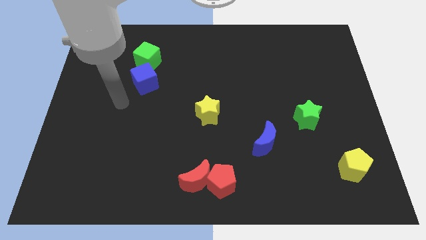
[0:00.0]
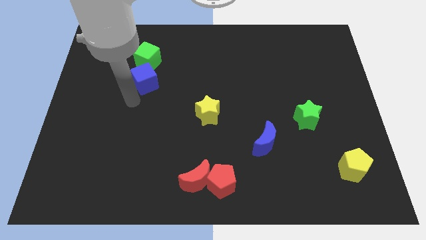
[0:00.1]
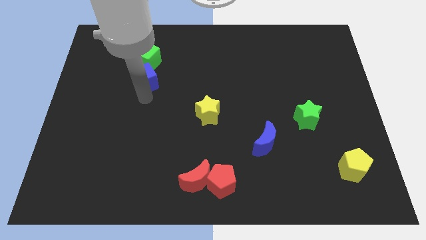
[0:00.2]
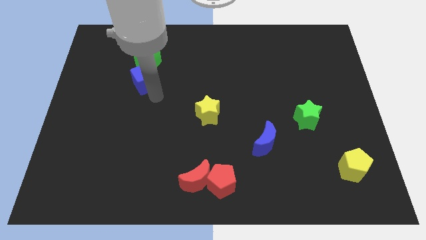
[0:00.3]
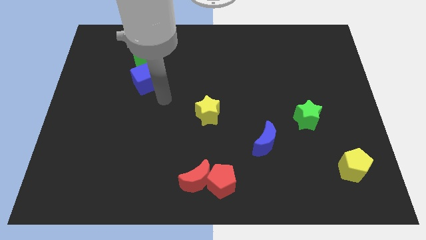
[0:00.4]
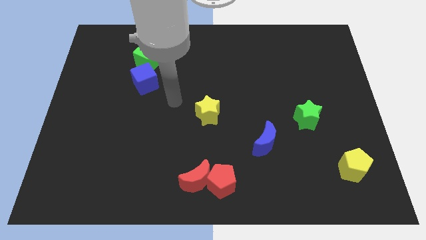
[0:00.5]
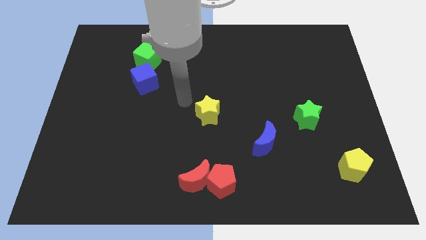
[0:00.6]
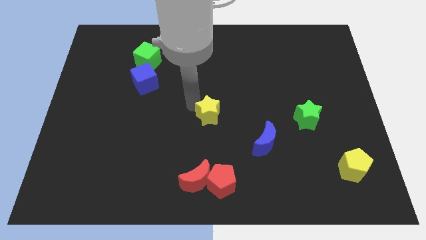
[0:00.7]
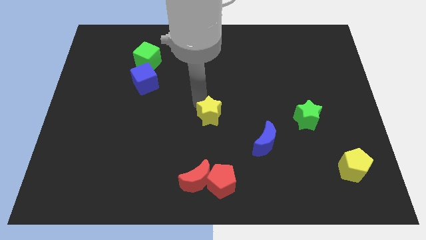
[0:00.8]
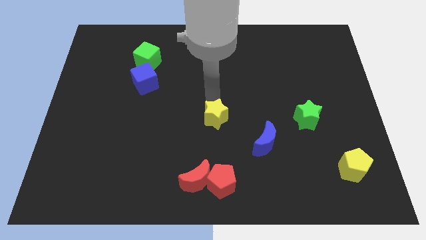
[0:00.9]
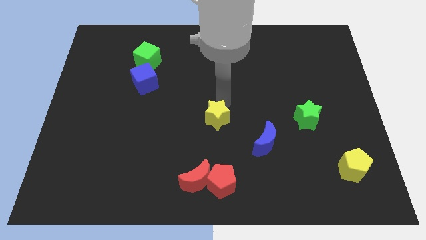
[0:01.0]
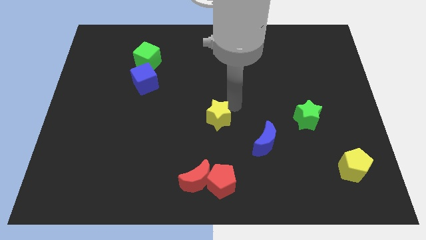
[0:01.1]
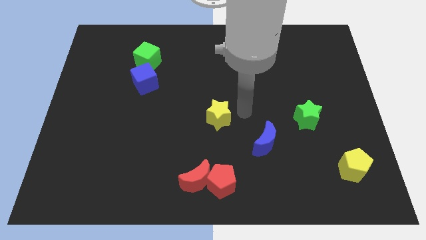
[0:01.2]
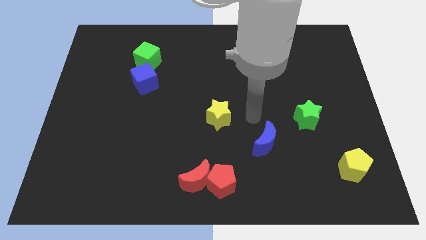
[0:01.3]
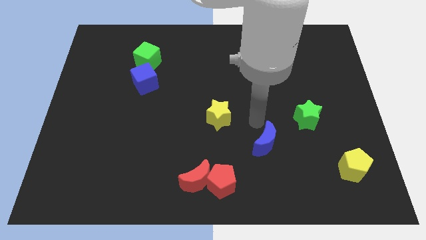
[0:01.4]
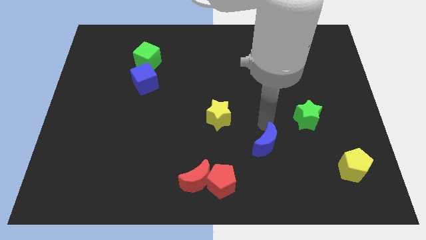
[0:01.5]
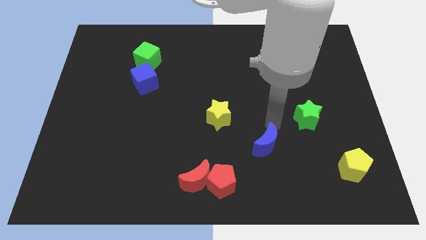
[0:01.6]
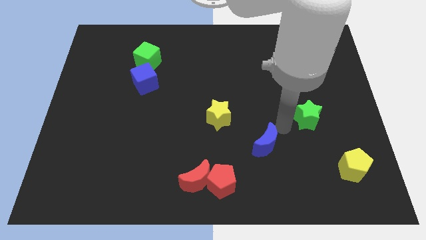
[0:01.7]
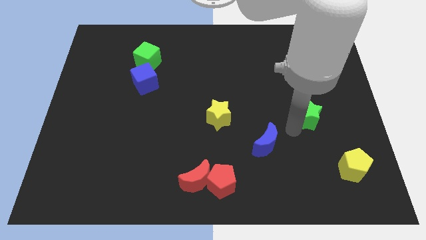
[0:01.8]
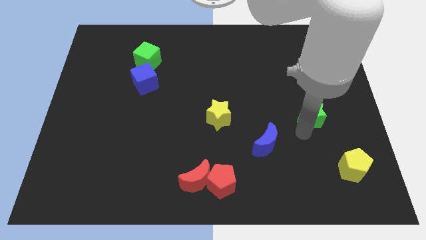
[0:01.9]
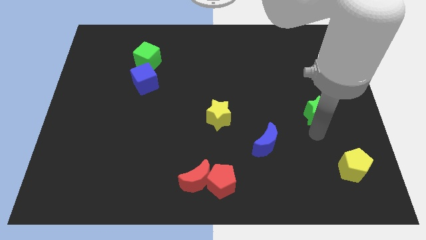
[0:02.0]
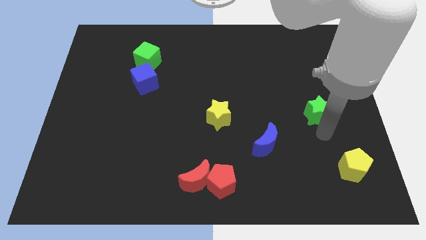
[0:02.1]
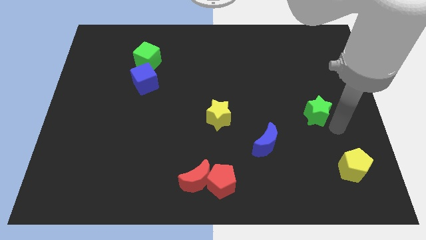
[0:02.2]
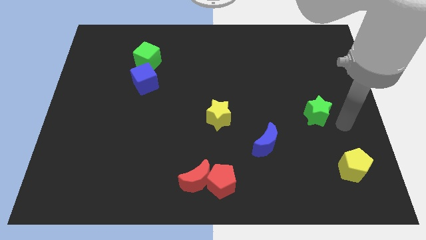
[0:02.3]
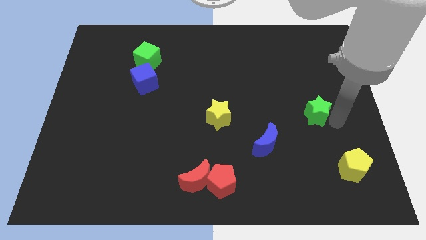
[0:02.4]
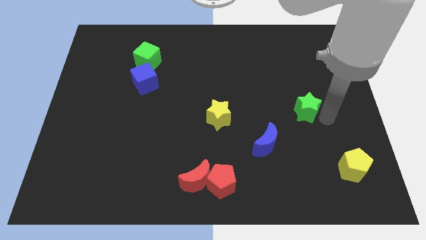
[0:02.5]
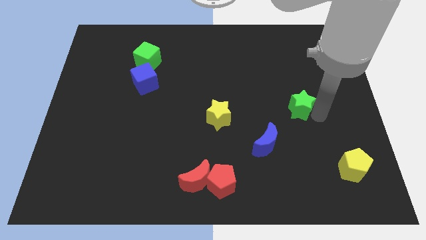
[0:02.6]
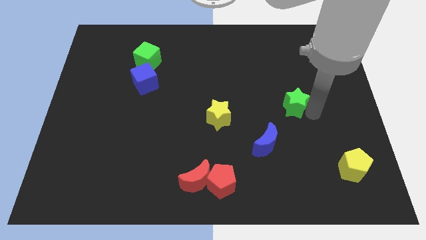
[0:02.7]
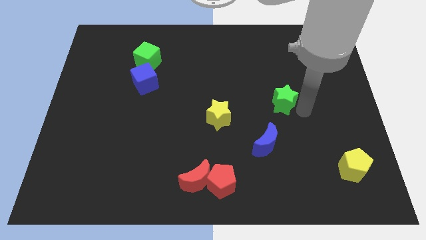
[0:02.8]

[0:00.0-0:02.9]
move the green star a little up and left diagonally

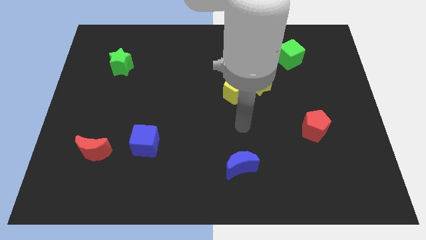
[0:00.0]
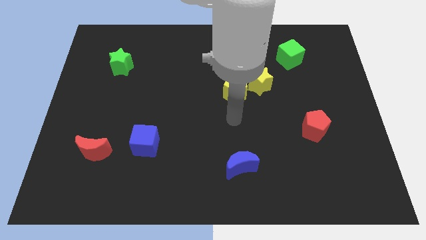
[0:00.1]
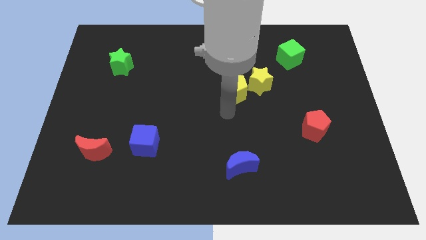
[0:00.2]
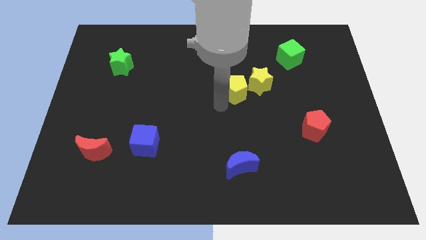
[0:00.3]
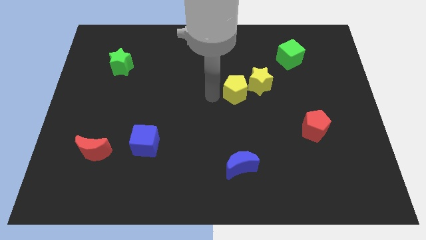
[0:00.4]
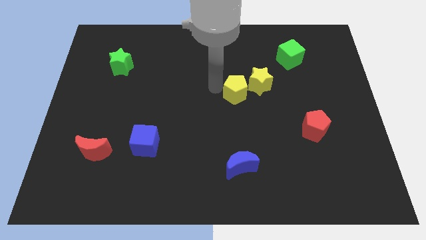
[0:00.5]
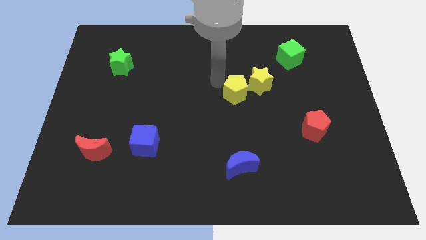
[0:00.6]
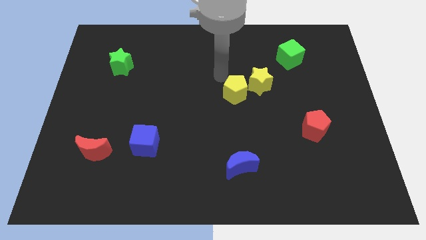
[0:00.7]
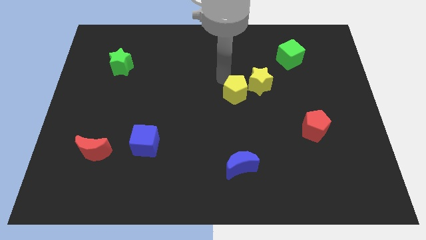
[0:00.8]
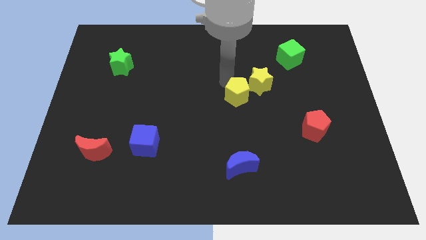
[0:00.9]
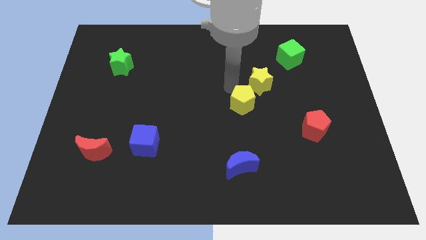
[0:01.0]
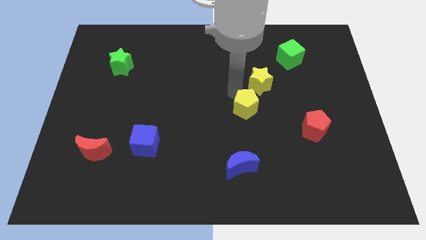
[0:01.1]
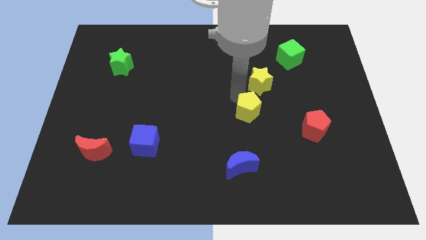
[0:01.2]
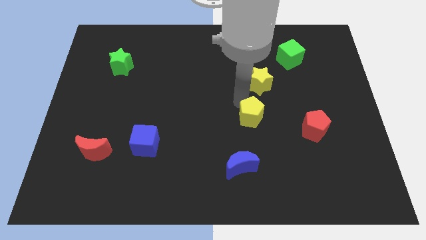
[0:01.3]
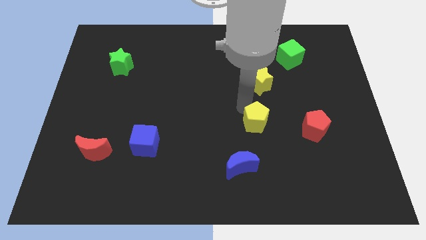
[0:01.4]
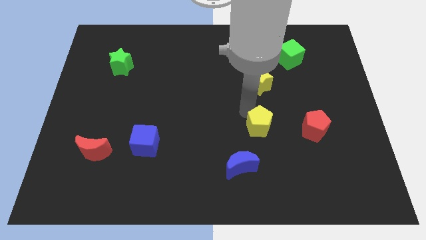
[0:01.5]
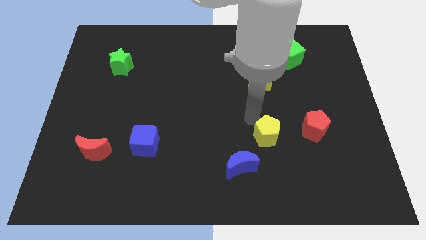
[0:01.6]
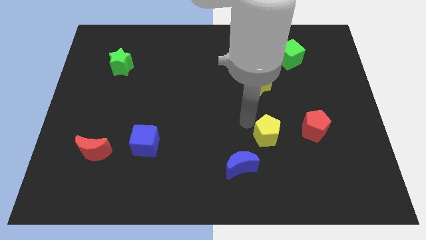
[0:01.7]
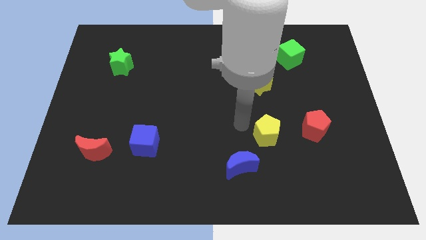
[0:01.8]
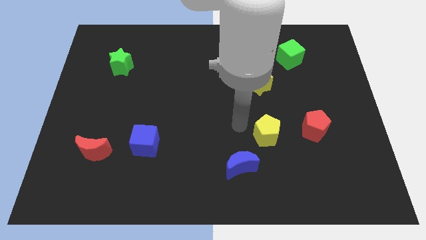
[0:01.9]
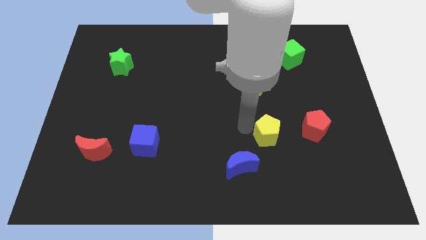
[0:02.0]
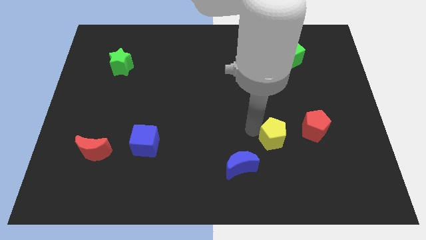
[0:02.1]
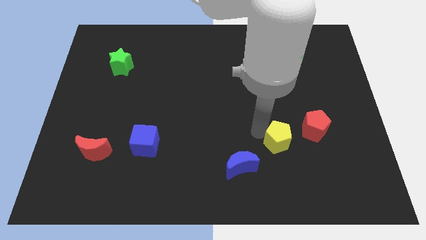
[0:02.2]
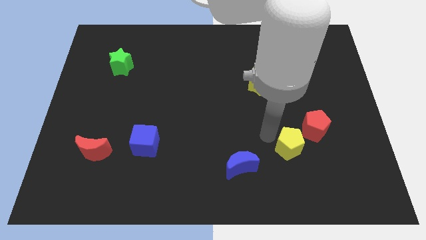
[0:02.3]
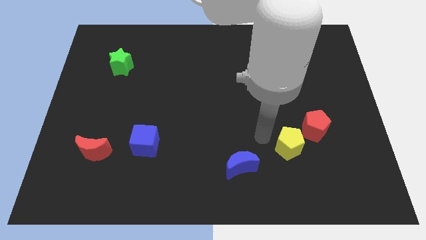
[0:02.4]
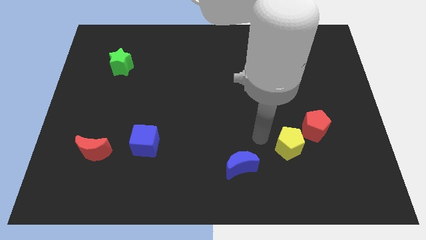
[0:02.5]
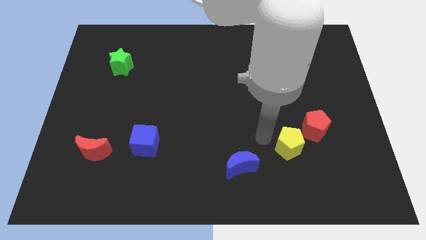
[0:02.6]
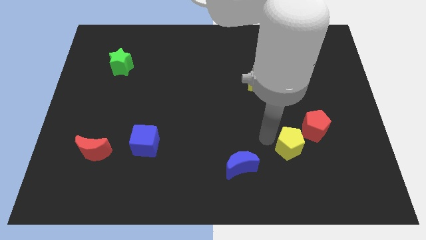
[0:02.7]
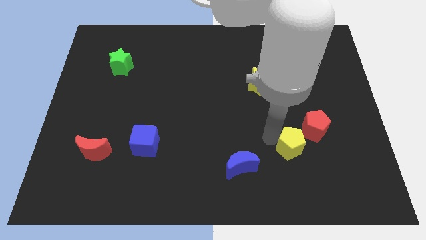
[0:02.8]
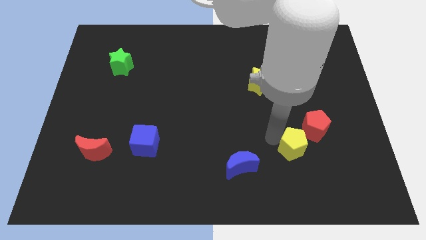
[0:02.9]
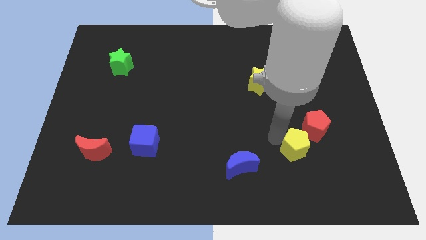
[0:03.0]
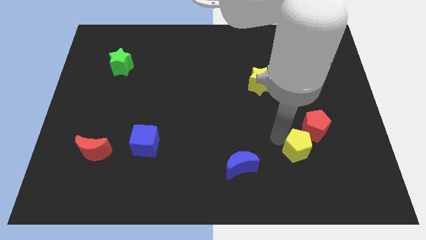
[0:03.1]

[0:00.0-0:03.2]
move the yellow pentagon down and to the right

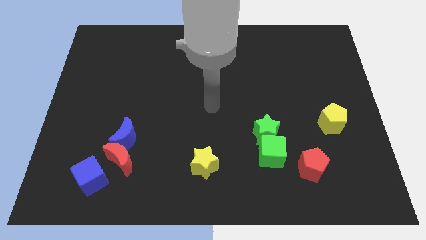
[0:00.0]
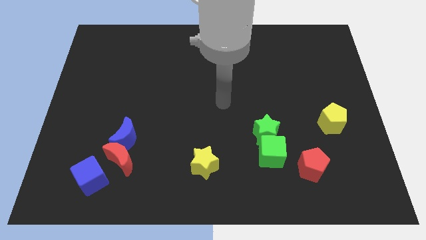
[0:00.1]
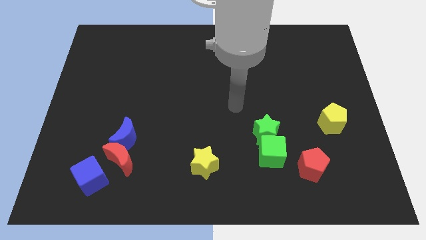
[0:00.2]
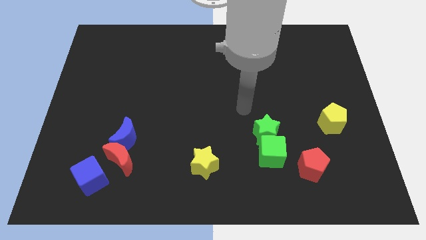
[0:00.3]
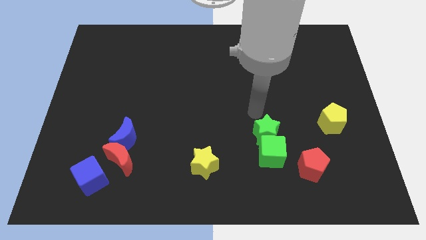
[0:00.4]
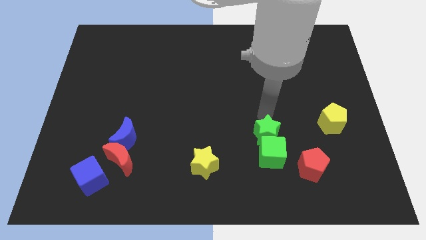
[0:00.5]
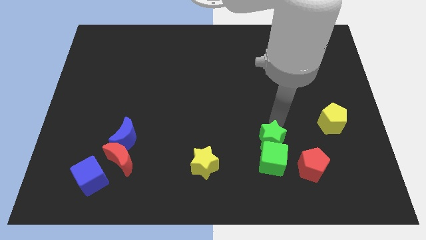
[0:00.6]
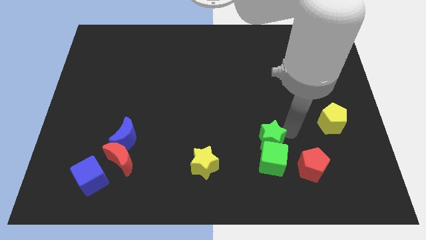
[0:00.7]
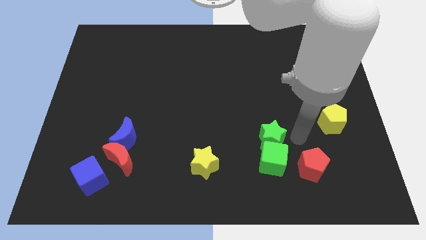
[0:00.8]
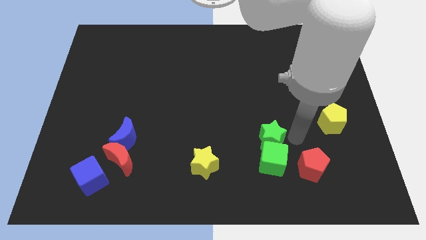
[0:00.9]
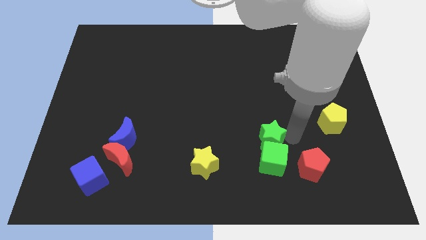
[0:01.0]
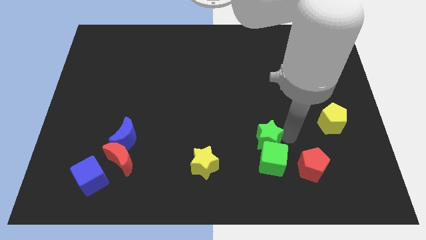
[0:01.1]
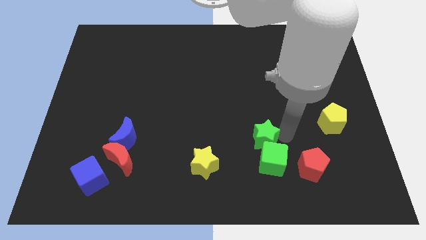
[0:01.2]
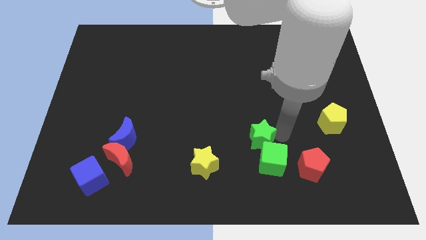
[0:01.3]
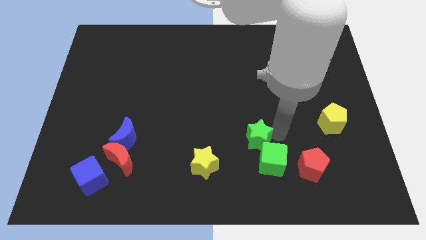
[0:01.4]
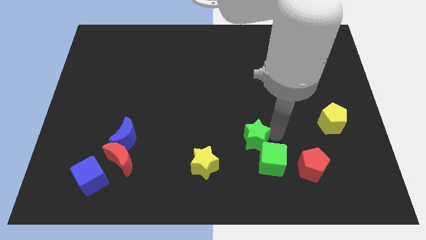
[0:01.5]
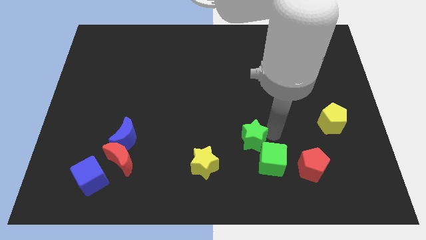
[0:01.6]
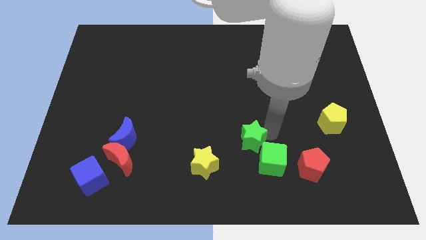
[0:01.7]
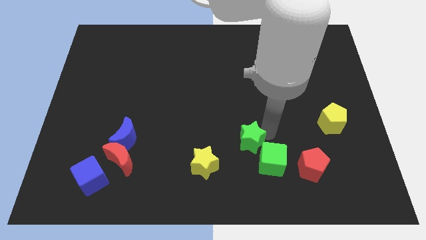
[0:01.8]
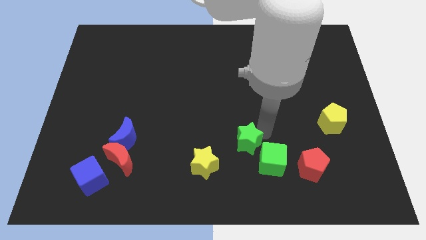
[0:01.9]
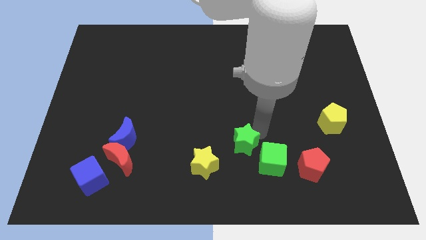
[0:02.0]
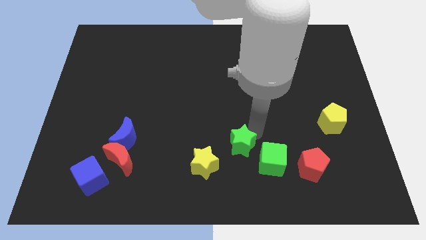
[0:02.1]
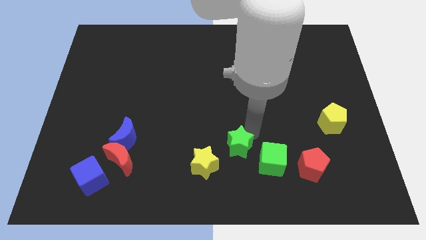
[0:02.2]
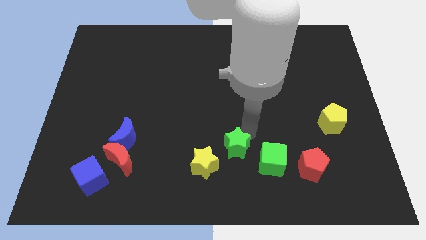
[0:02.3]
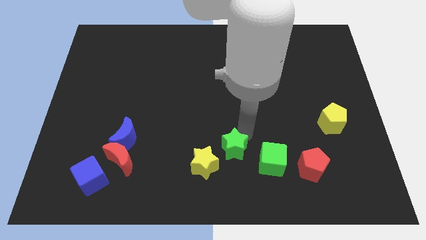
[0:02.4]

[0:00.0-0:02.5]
slightly slide the green star left
